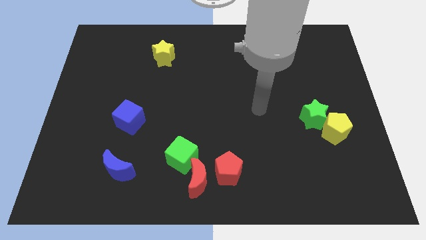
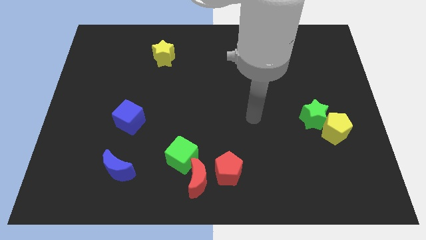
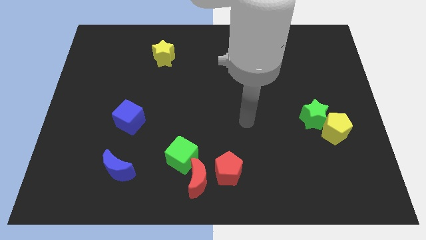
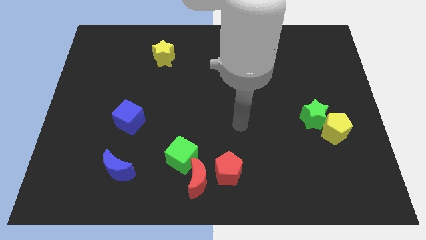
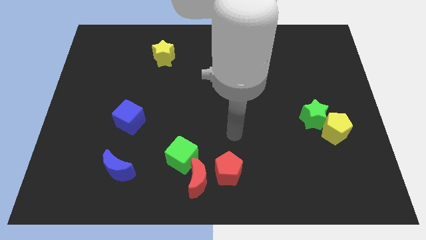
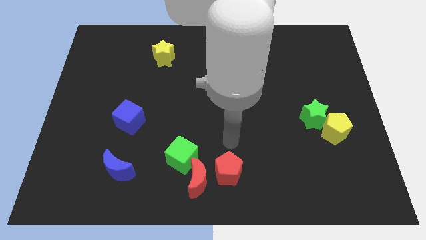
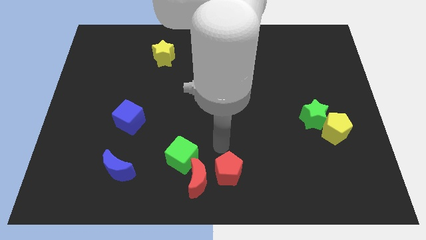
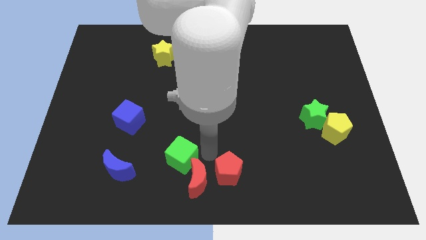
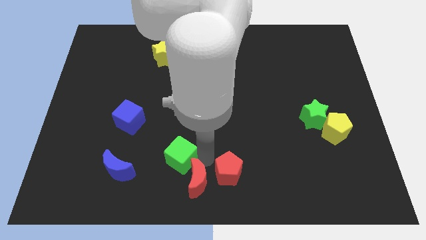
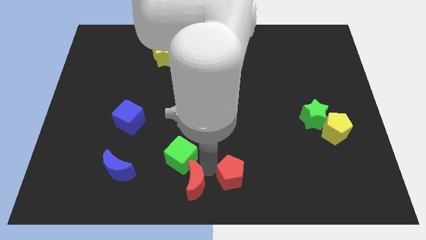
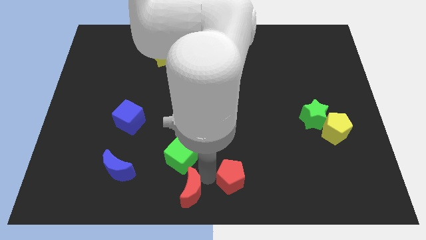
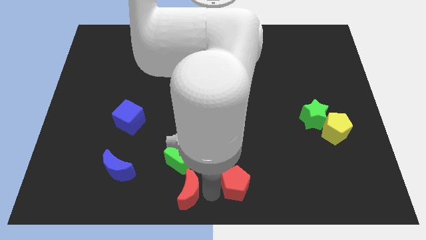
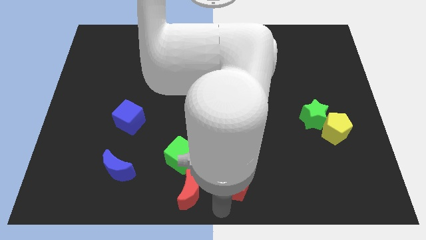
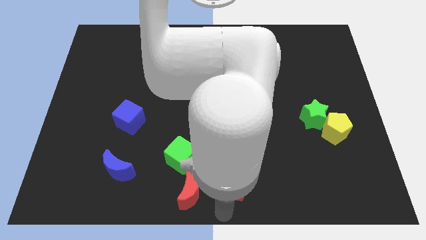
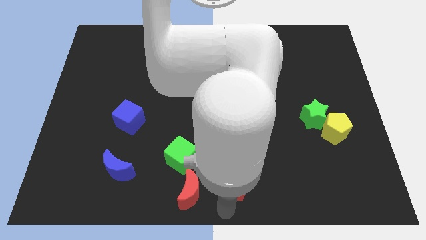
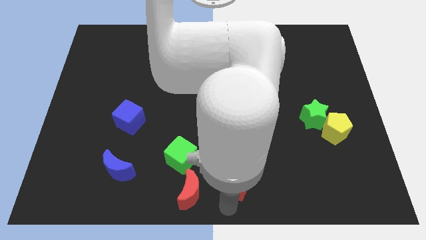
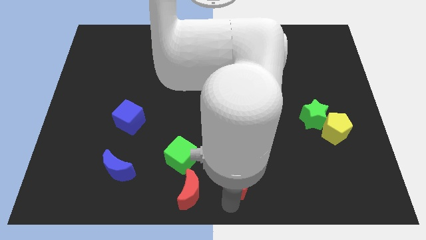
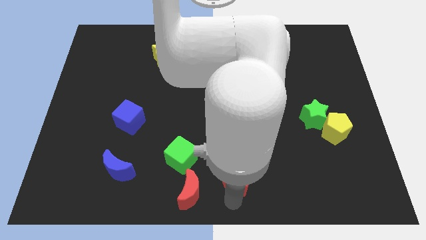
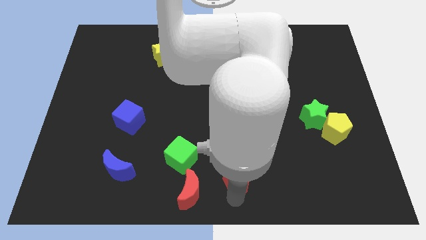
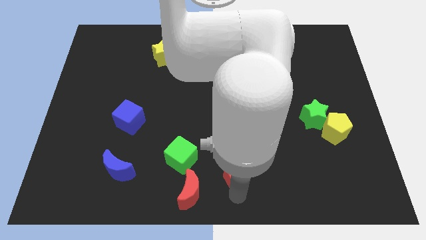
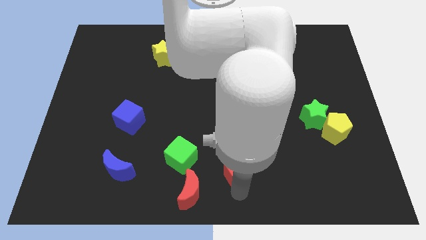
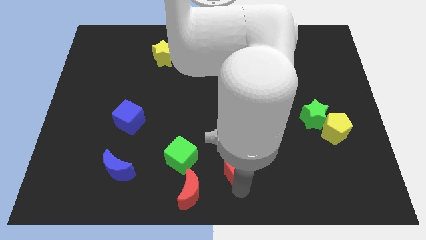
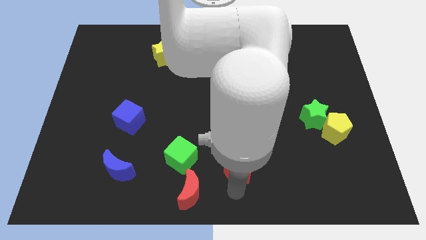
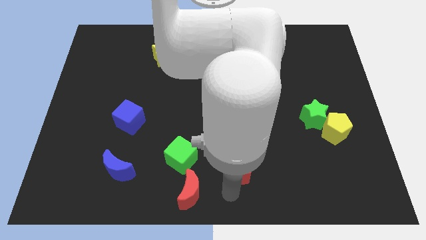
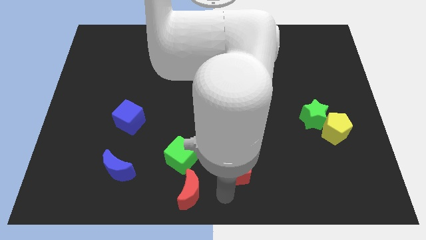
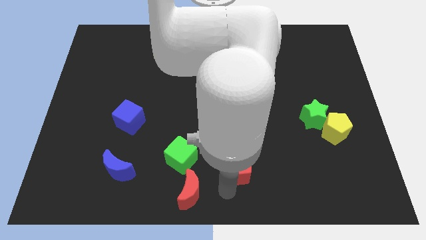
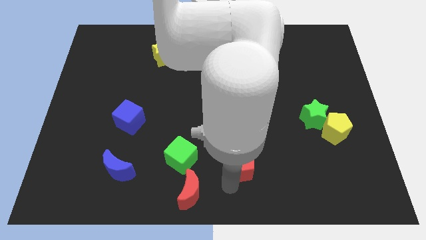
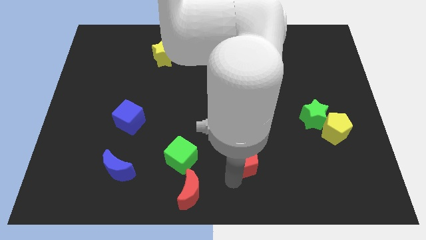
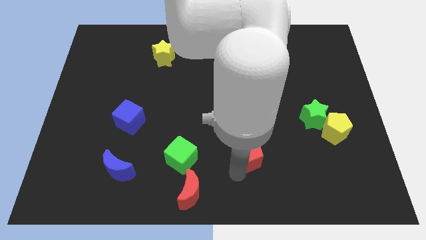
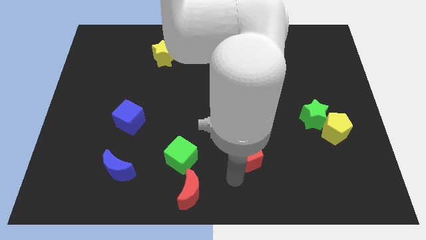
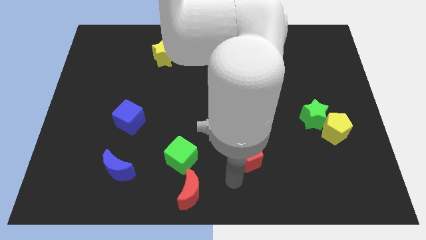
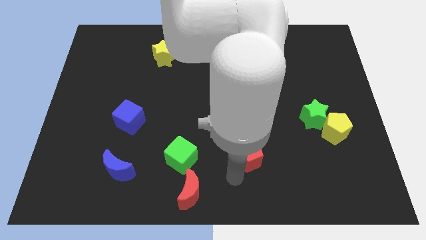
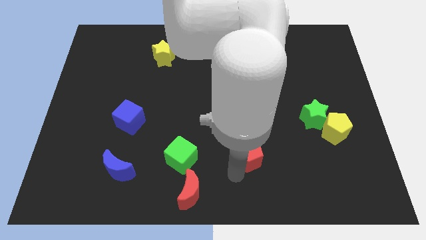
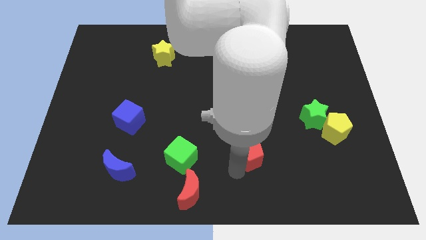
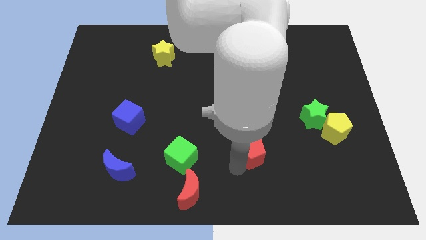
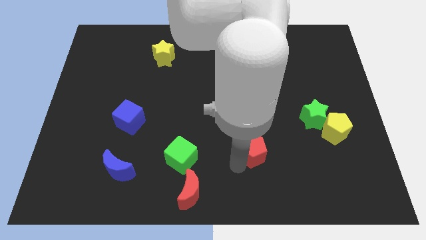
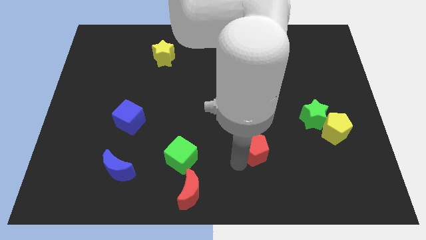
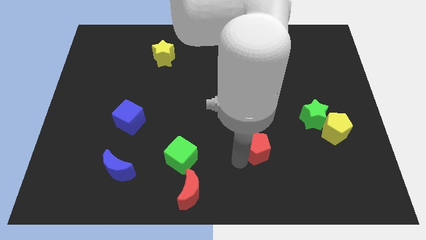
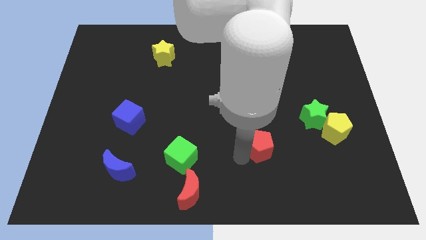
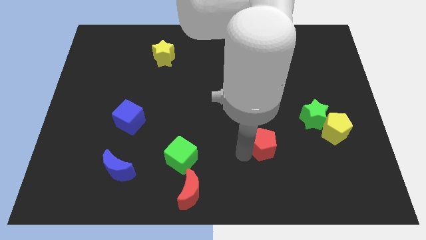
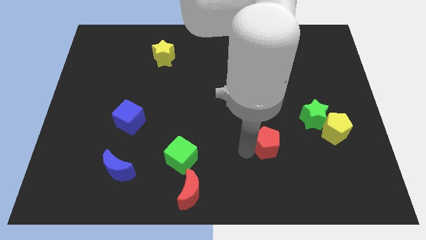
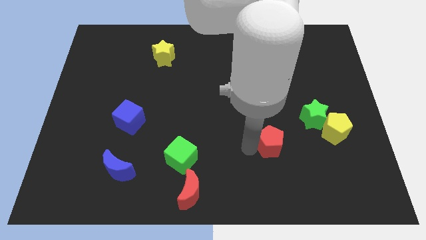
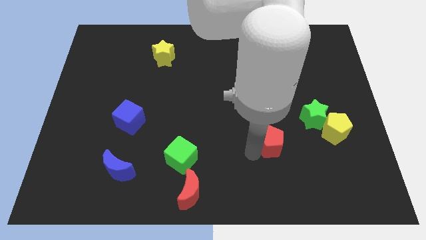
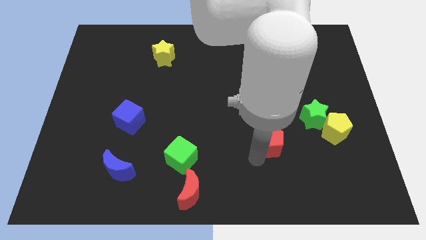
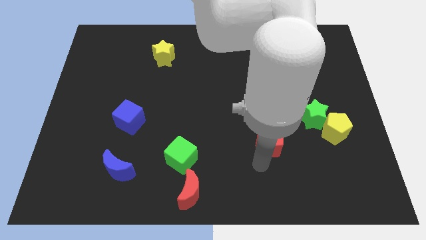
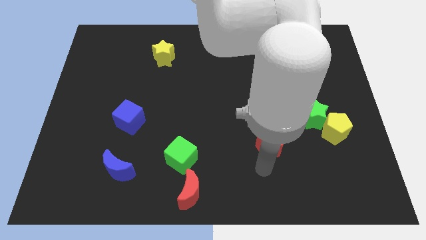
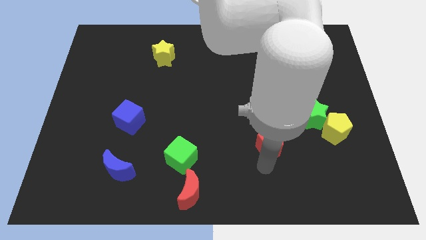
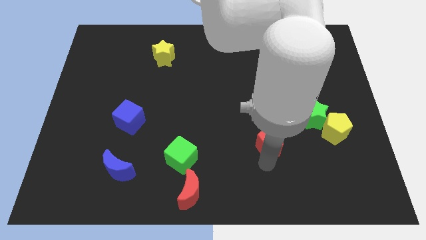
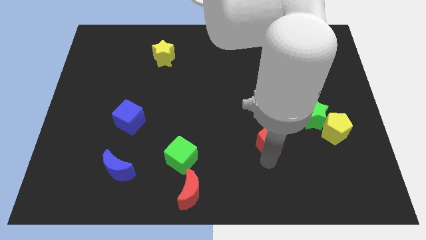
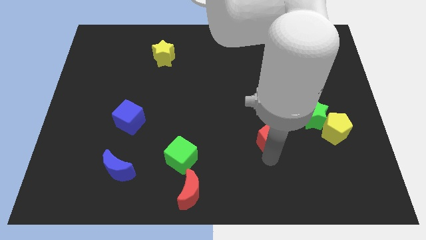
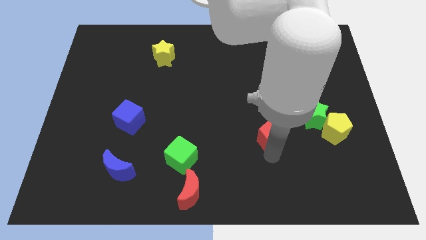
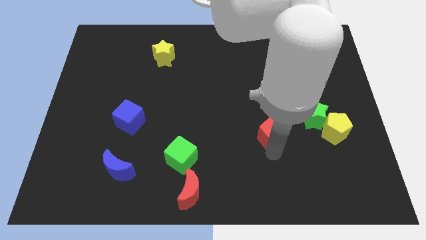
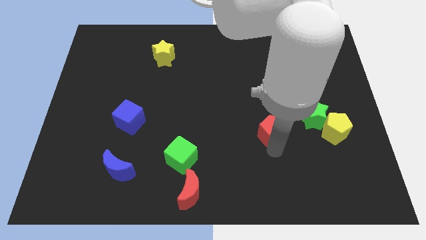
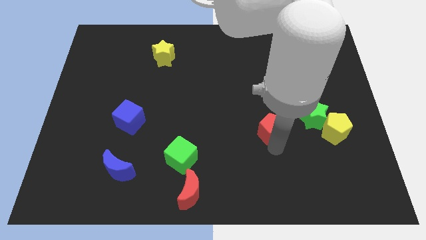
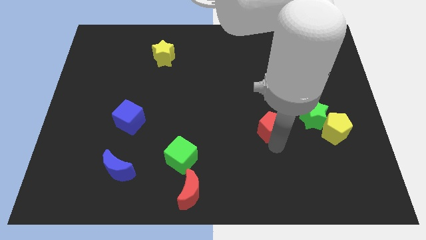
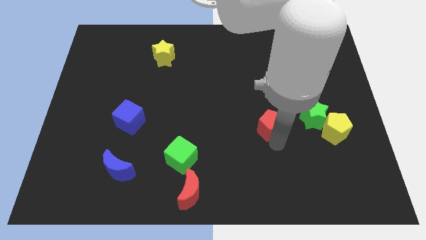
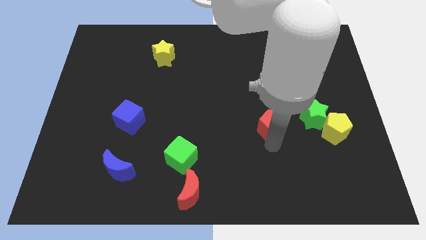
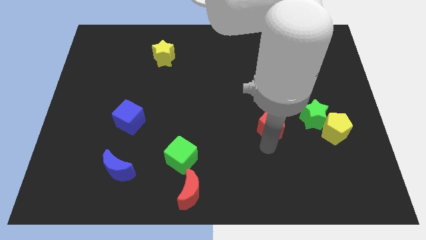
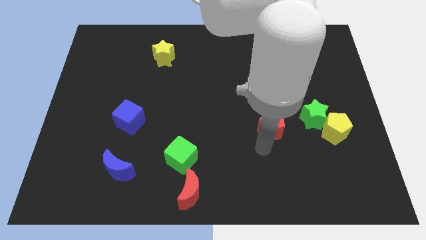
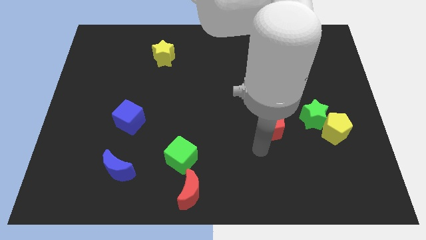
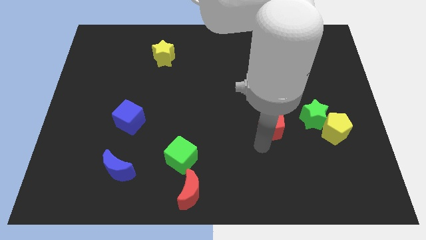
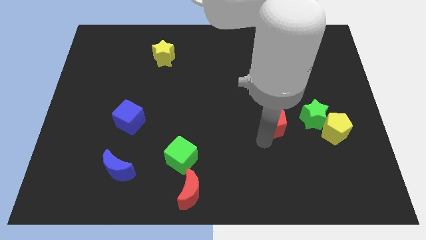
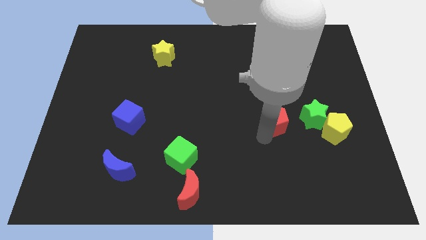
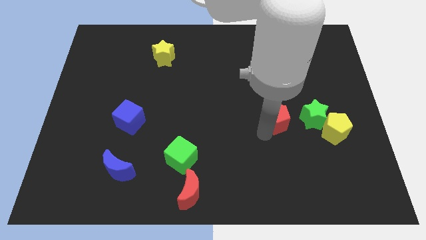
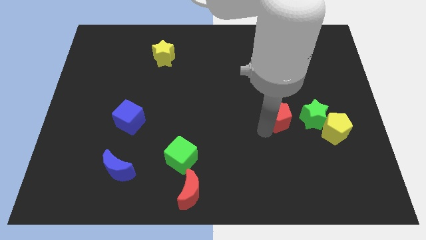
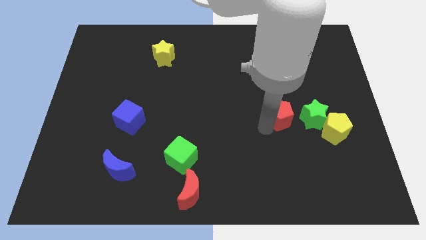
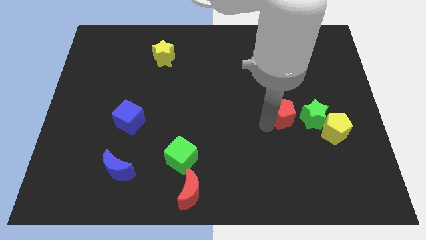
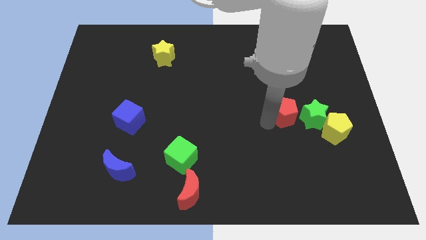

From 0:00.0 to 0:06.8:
move the red pentagon diagonally upwards and to the right

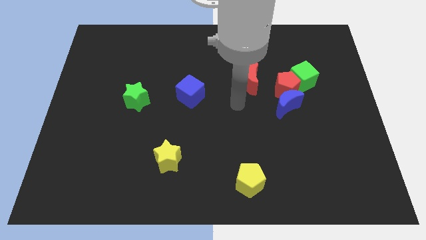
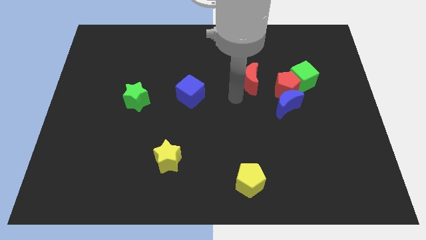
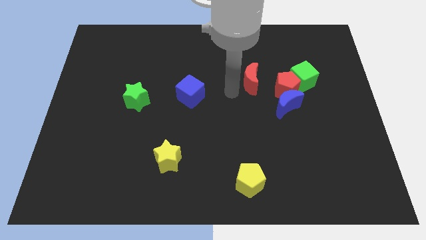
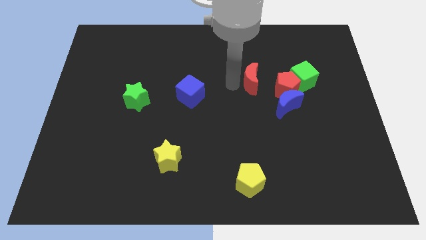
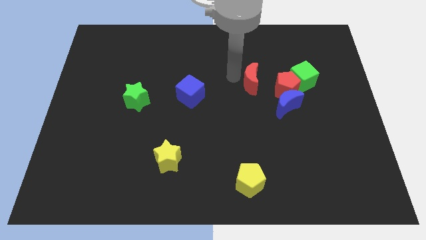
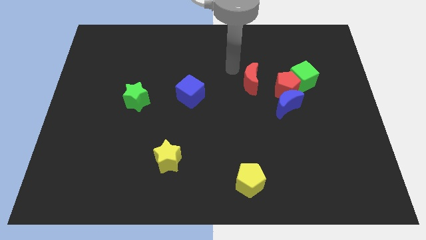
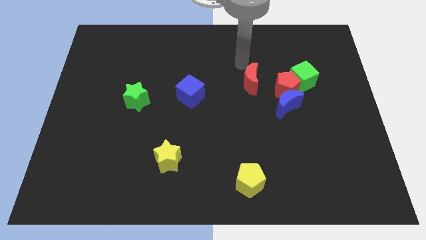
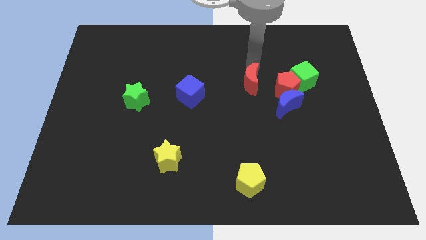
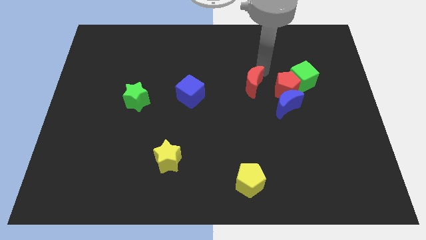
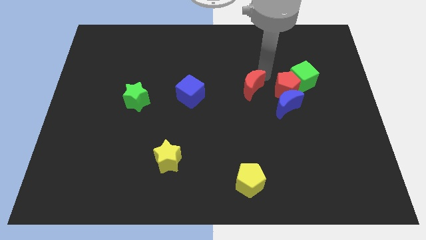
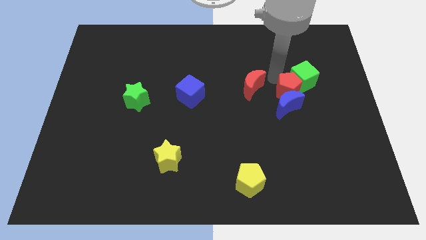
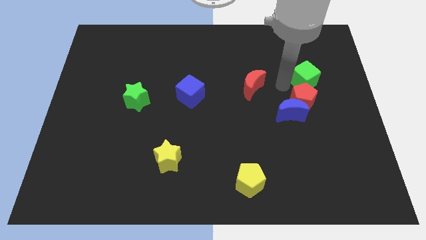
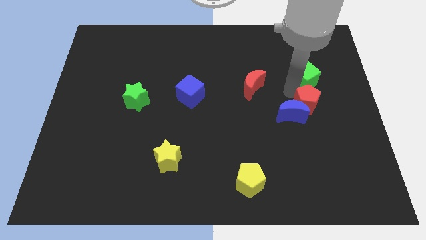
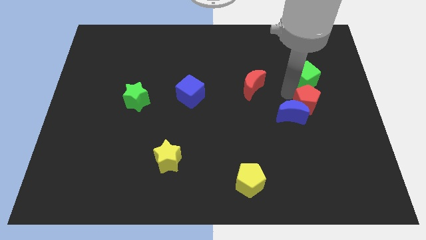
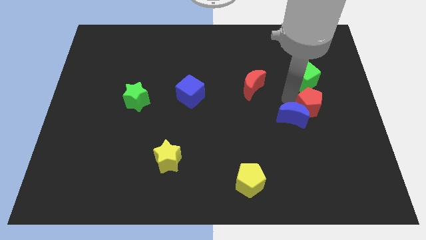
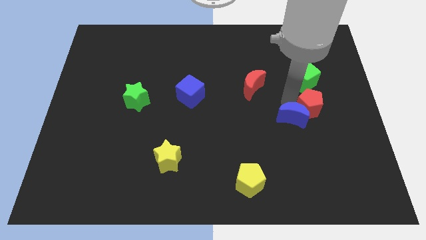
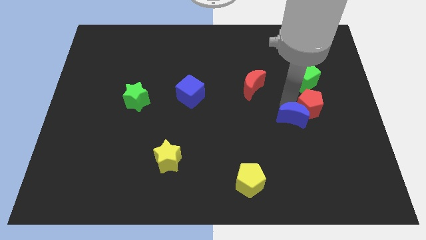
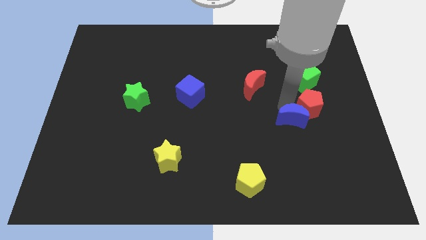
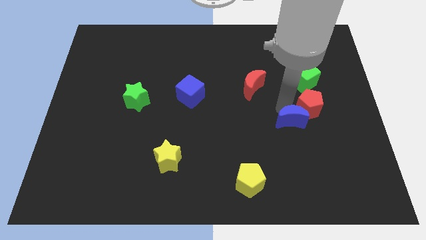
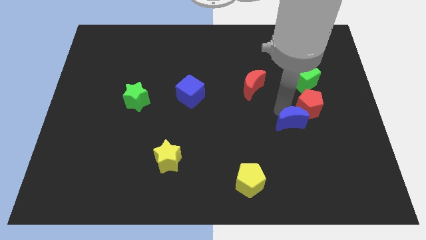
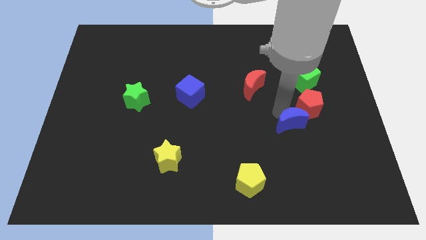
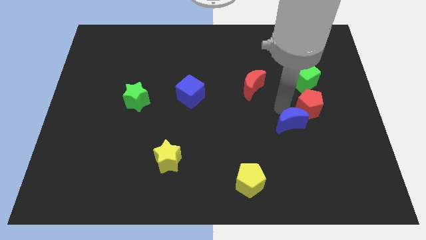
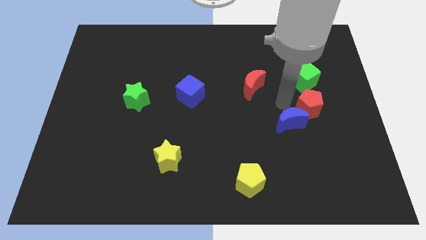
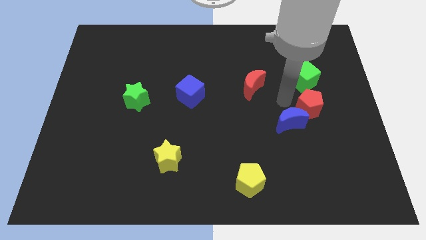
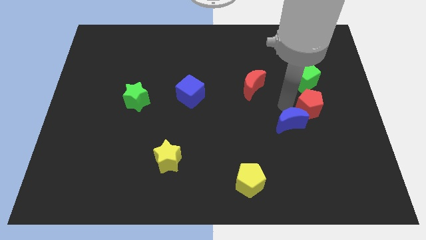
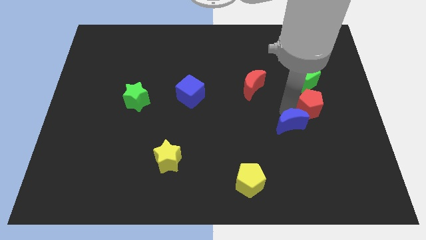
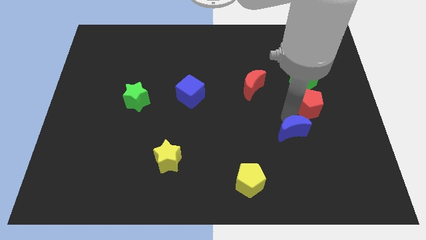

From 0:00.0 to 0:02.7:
push the blue moon slightly down
